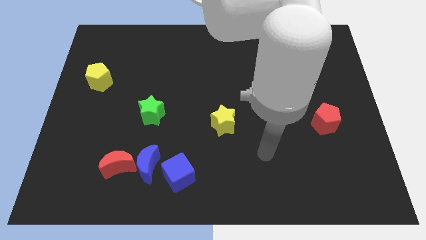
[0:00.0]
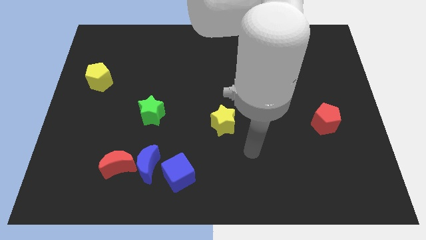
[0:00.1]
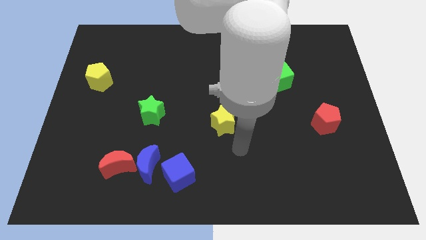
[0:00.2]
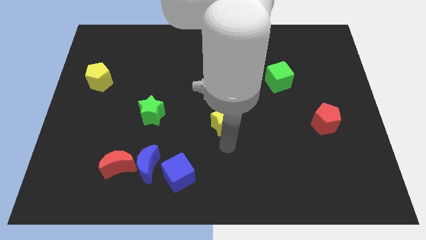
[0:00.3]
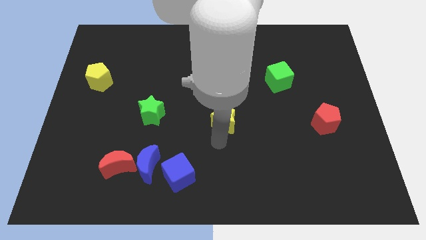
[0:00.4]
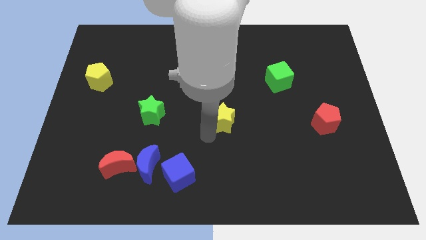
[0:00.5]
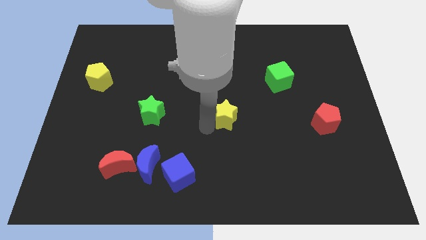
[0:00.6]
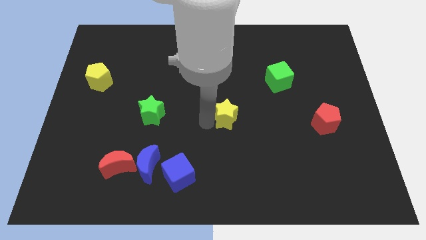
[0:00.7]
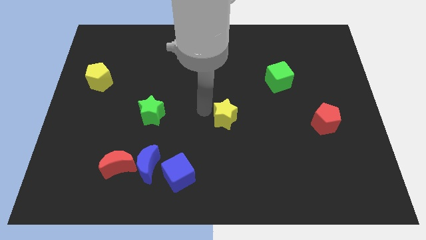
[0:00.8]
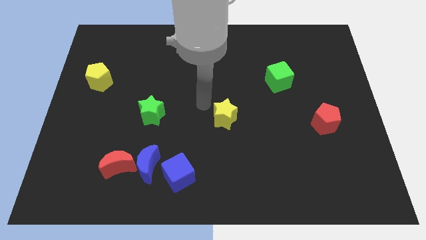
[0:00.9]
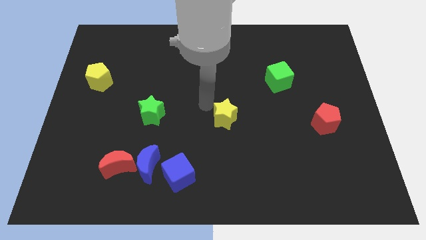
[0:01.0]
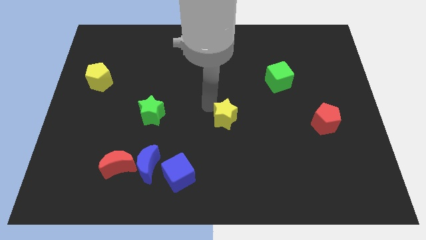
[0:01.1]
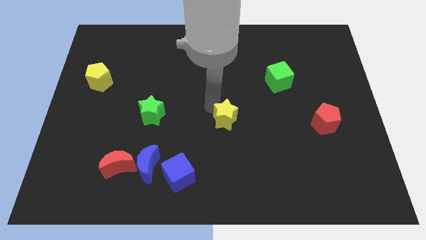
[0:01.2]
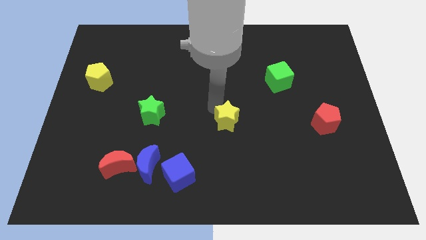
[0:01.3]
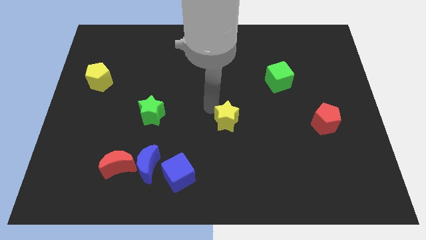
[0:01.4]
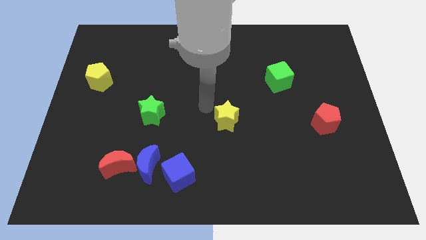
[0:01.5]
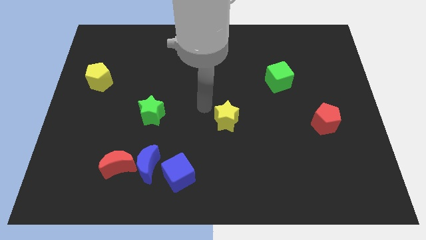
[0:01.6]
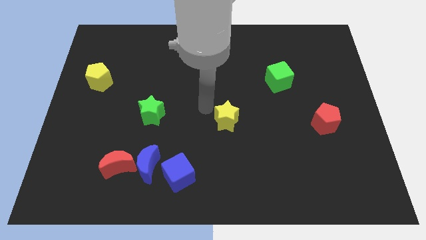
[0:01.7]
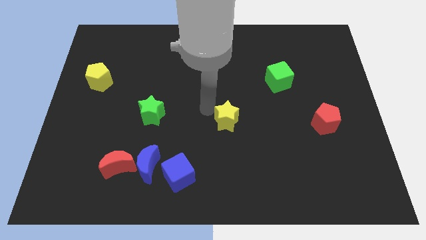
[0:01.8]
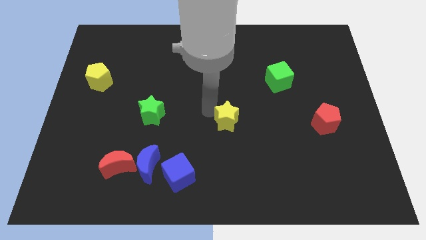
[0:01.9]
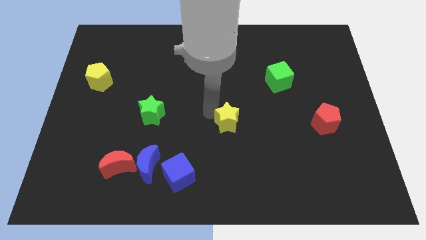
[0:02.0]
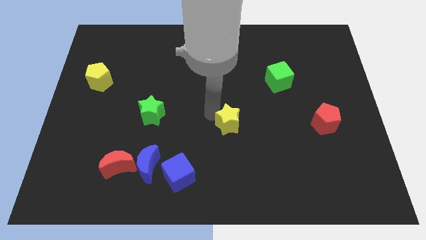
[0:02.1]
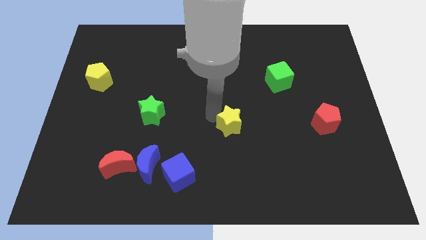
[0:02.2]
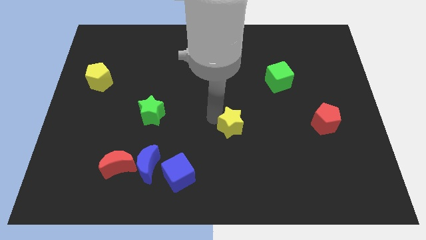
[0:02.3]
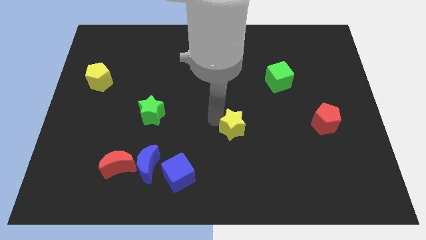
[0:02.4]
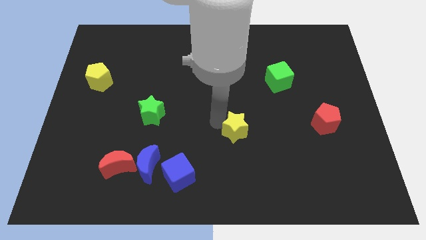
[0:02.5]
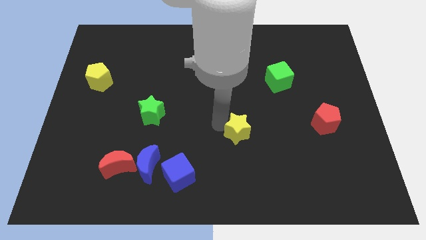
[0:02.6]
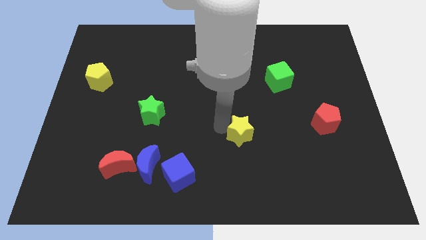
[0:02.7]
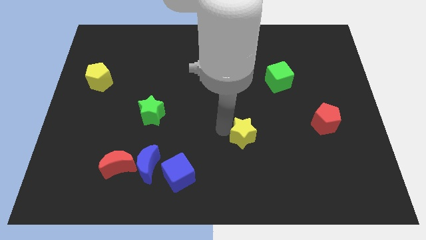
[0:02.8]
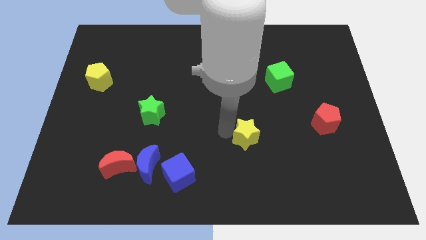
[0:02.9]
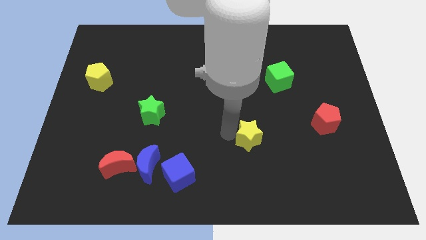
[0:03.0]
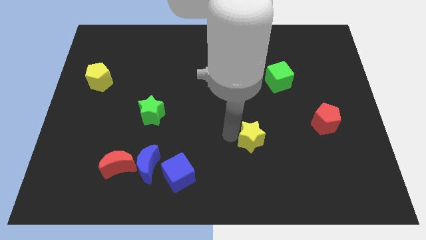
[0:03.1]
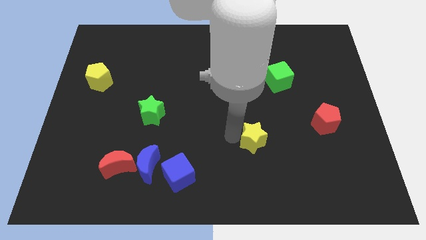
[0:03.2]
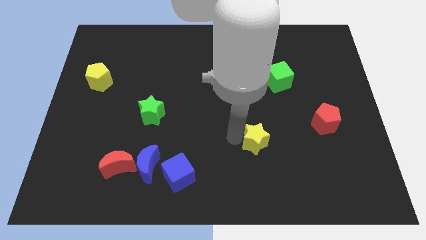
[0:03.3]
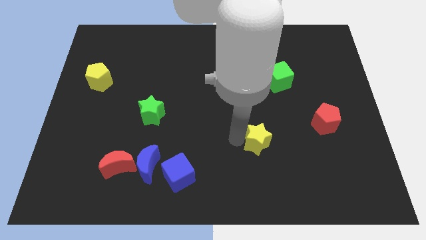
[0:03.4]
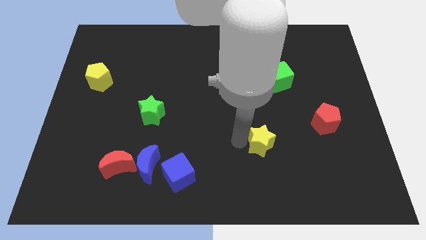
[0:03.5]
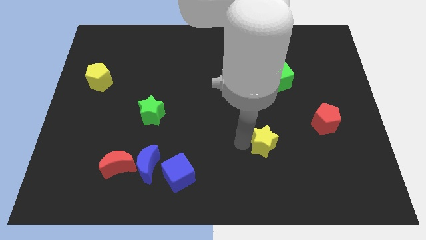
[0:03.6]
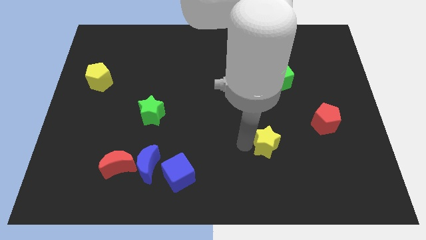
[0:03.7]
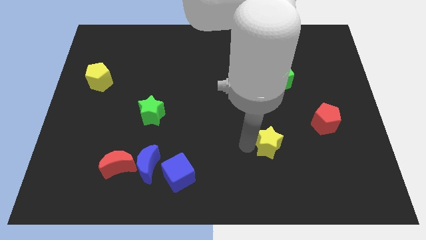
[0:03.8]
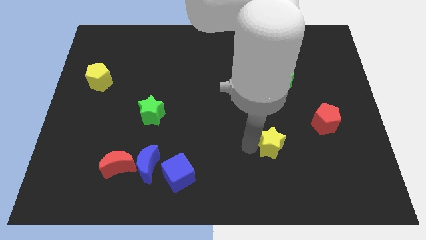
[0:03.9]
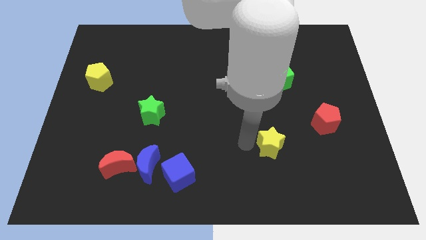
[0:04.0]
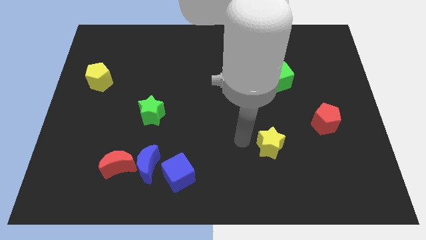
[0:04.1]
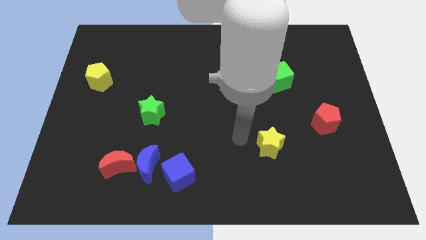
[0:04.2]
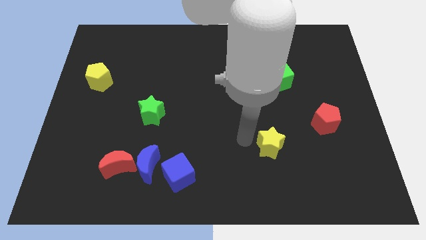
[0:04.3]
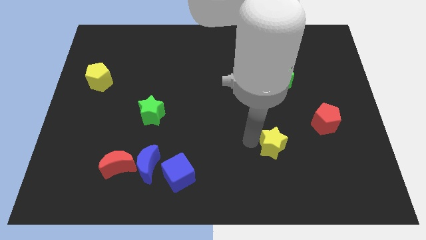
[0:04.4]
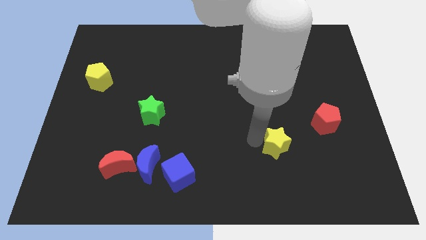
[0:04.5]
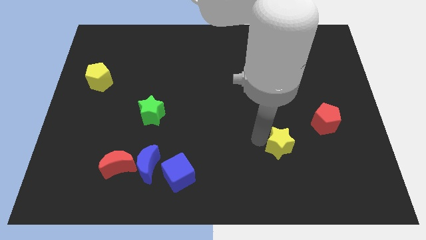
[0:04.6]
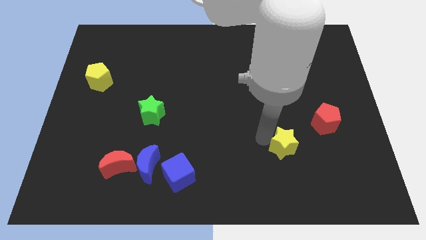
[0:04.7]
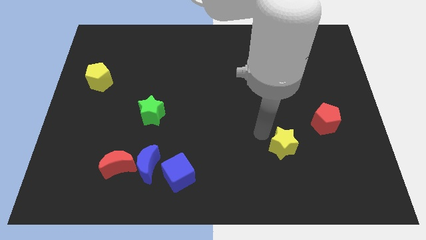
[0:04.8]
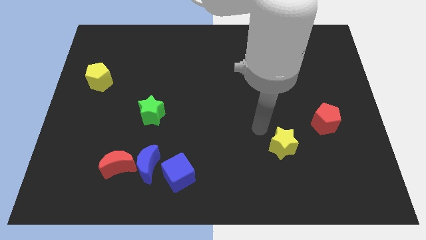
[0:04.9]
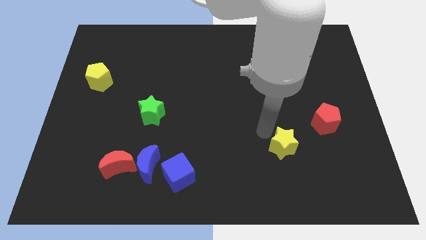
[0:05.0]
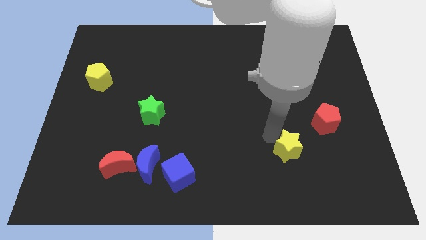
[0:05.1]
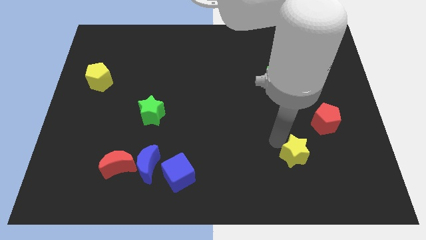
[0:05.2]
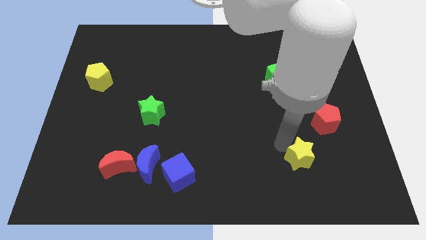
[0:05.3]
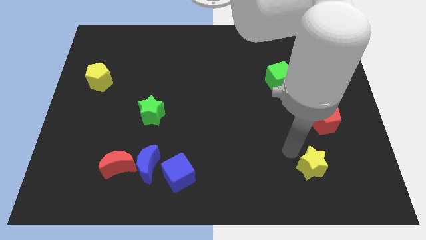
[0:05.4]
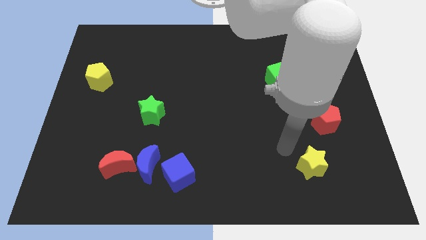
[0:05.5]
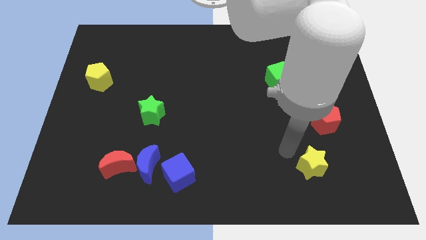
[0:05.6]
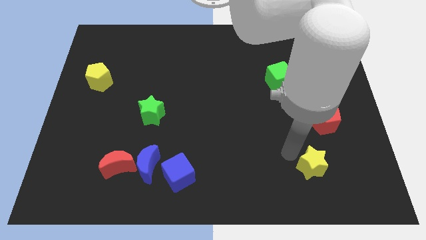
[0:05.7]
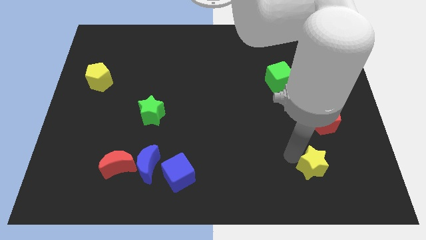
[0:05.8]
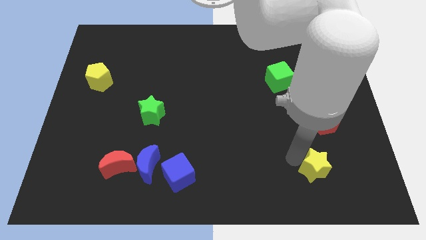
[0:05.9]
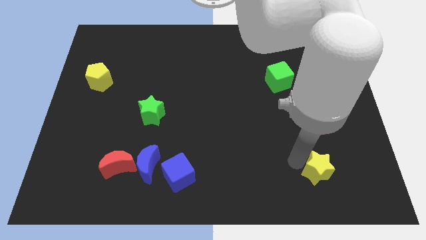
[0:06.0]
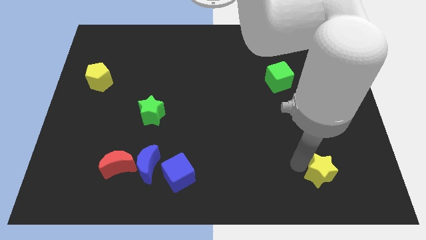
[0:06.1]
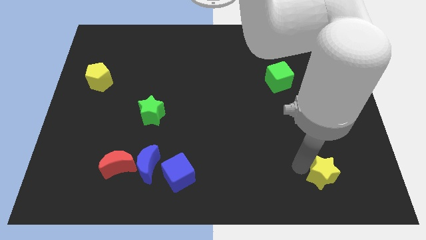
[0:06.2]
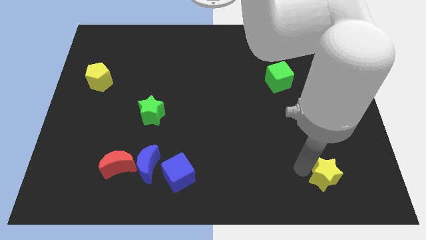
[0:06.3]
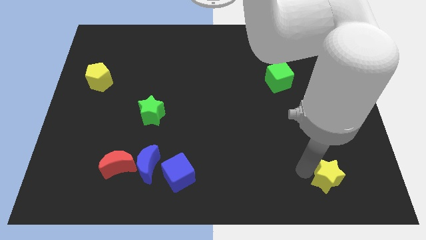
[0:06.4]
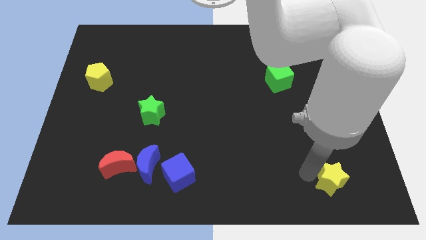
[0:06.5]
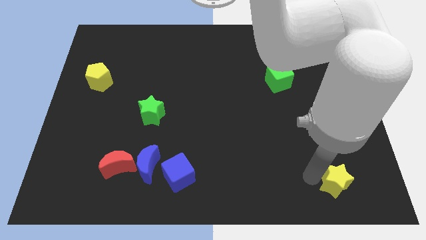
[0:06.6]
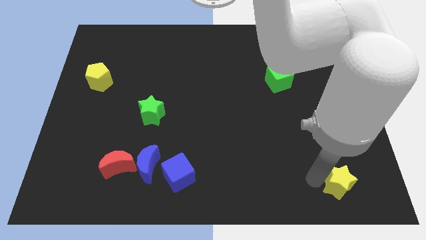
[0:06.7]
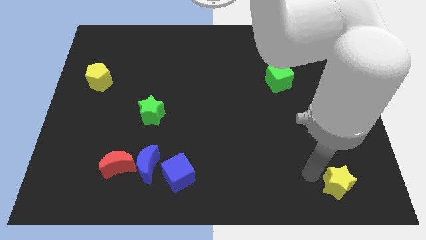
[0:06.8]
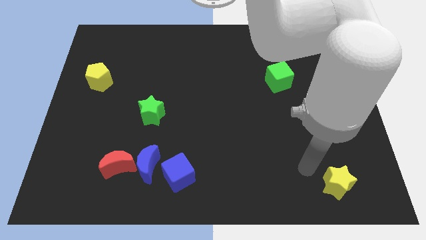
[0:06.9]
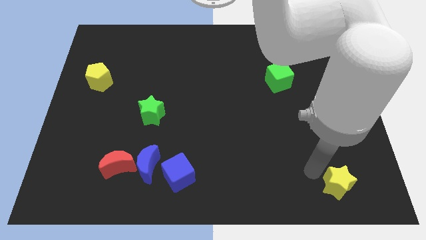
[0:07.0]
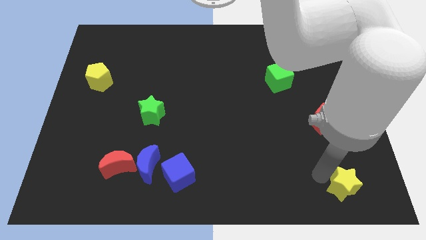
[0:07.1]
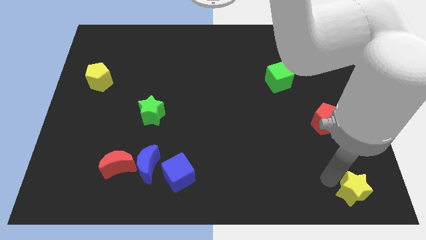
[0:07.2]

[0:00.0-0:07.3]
push the yellow star to the bottom right corner
